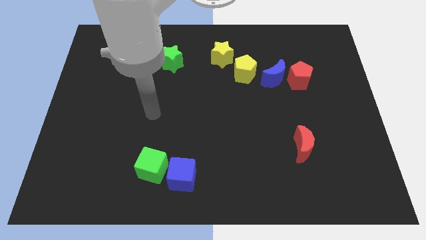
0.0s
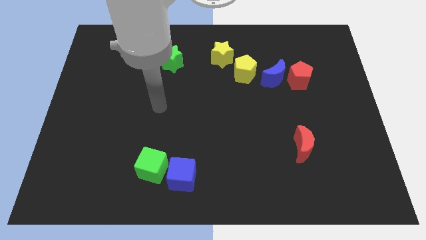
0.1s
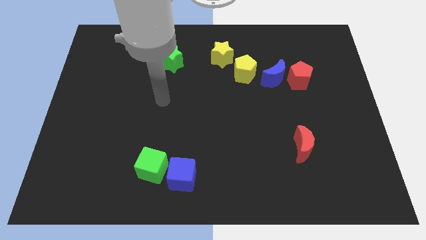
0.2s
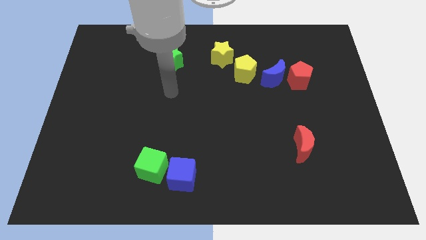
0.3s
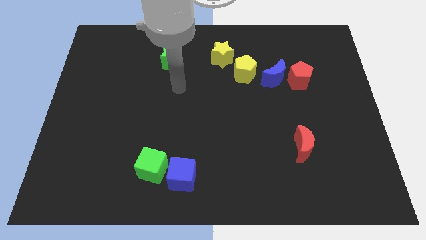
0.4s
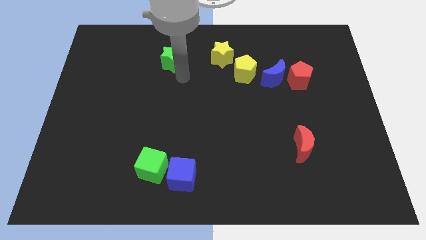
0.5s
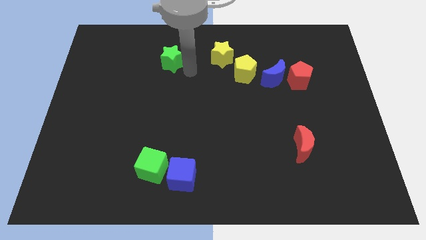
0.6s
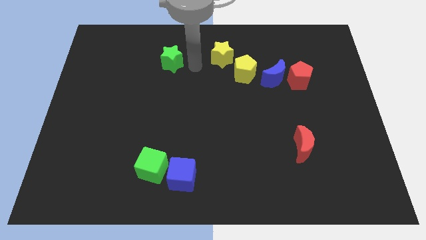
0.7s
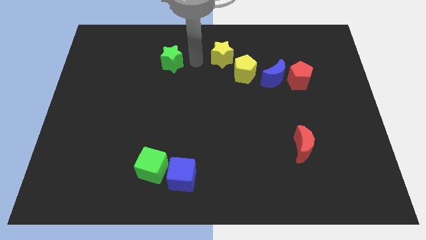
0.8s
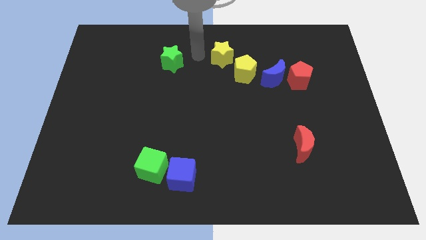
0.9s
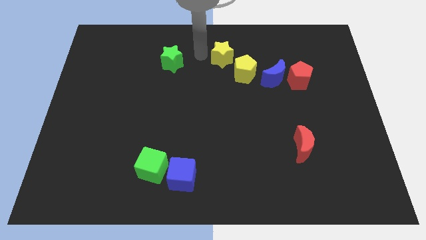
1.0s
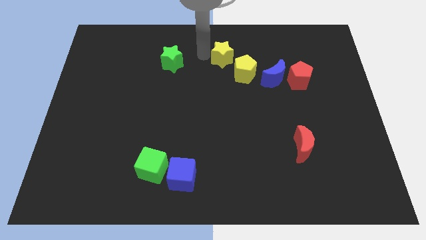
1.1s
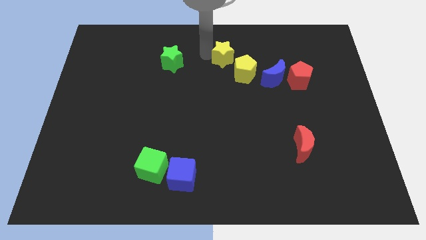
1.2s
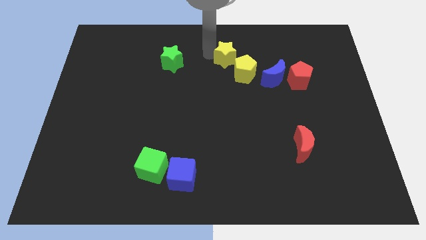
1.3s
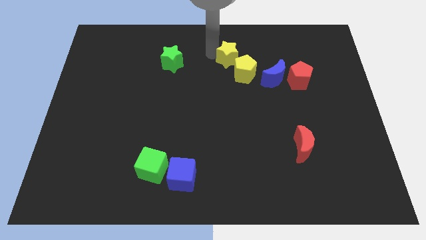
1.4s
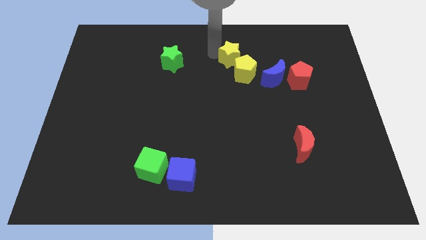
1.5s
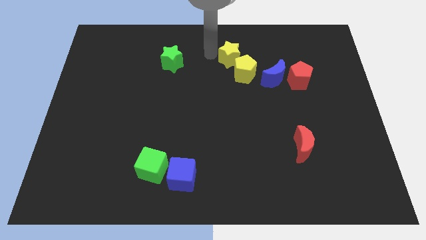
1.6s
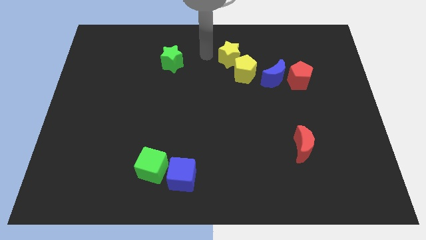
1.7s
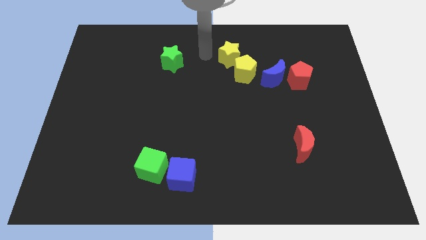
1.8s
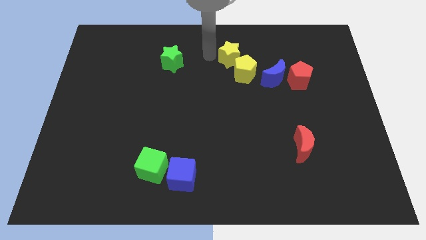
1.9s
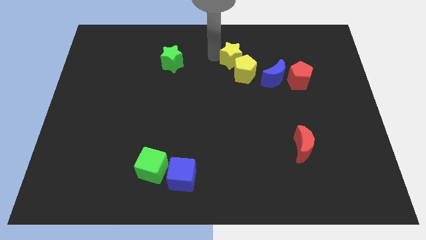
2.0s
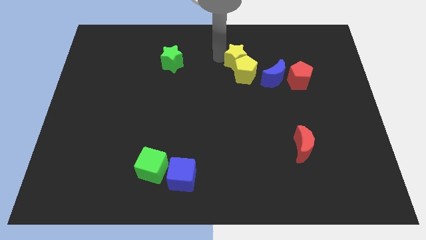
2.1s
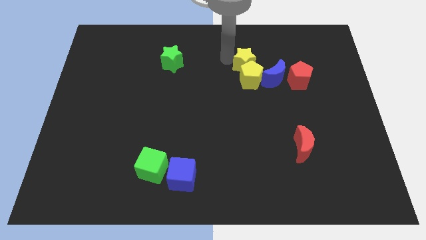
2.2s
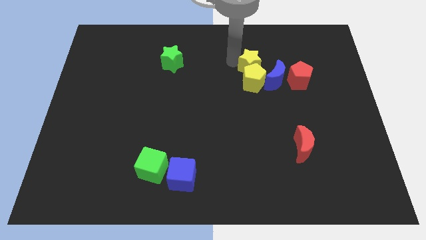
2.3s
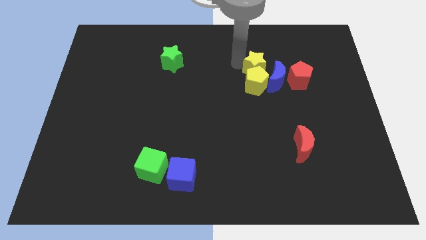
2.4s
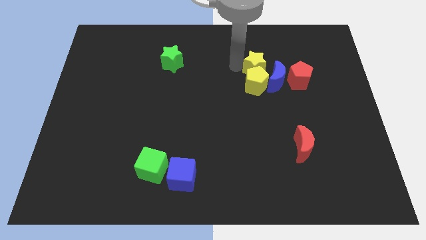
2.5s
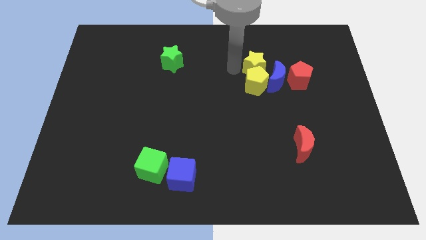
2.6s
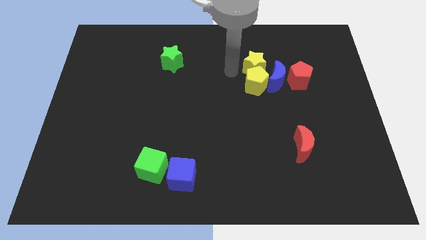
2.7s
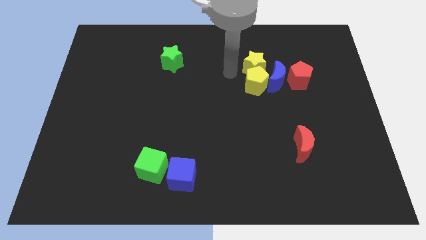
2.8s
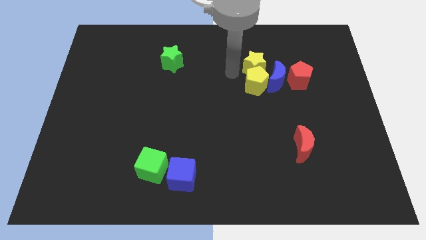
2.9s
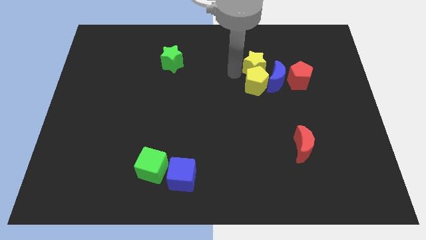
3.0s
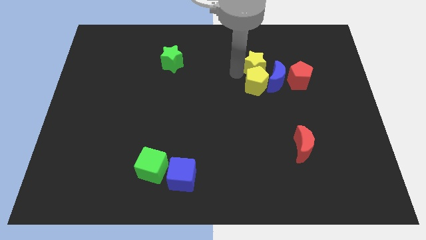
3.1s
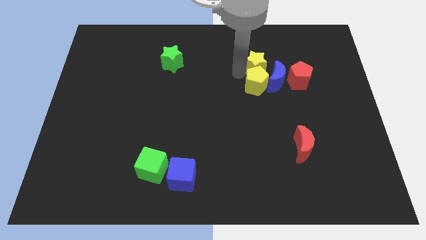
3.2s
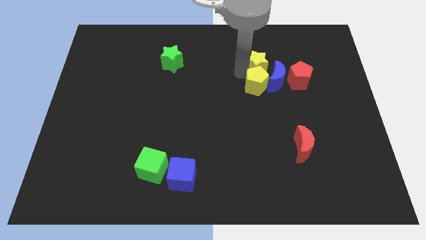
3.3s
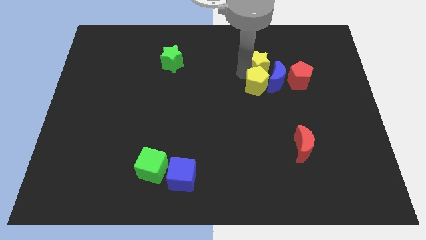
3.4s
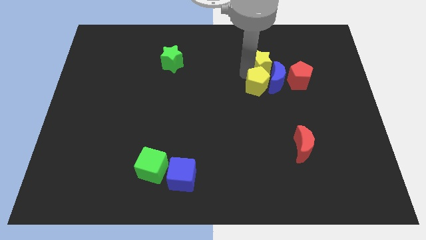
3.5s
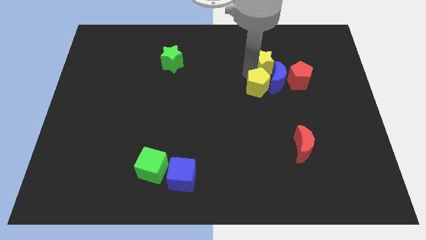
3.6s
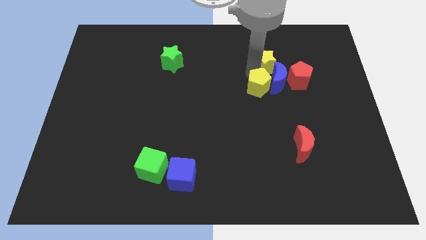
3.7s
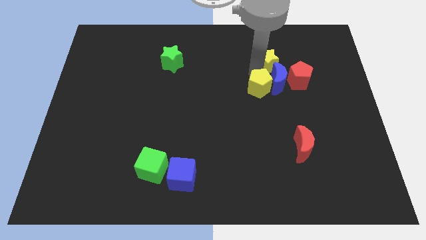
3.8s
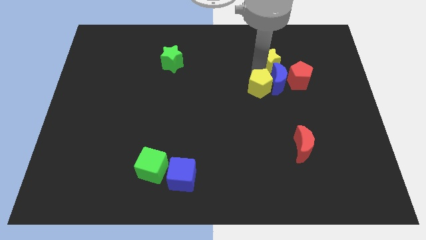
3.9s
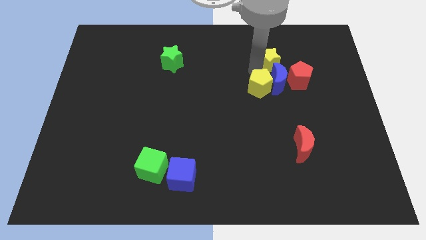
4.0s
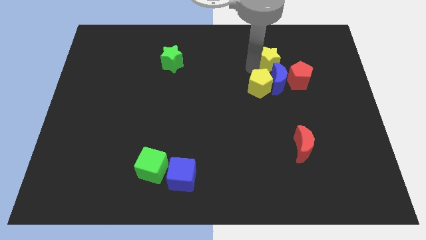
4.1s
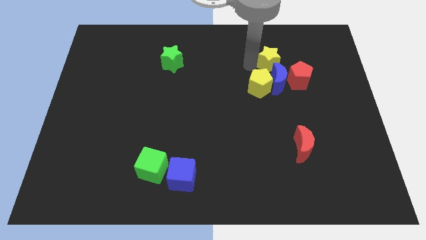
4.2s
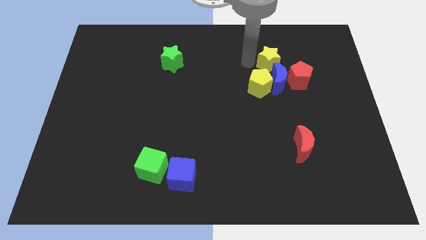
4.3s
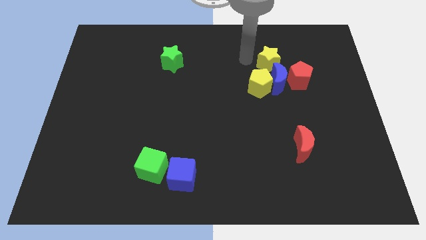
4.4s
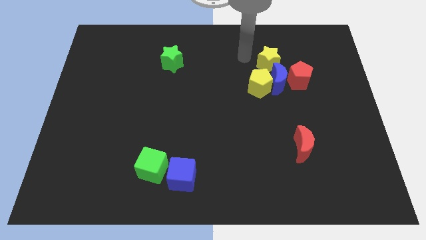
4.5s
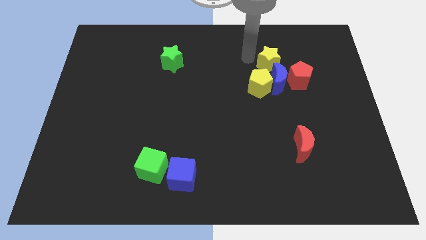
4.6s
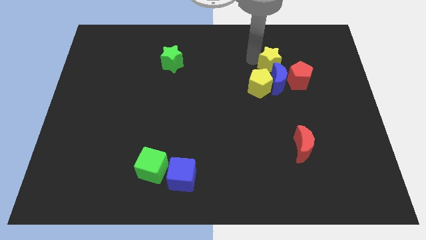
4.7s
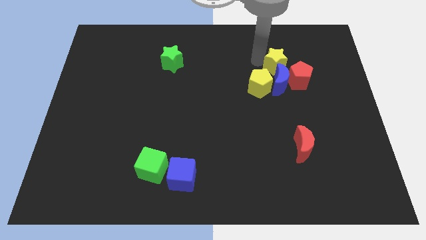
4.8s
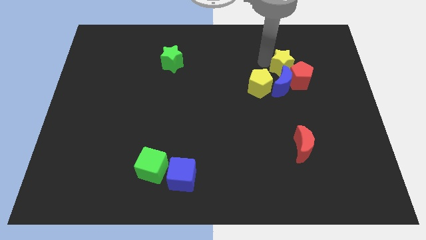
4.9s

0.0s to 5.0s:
put the yellow star to the red pentagon

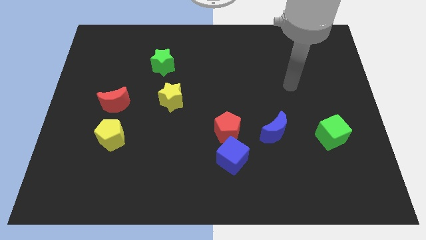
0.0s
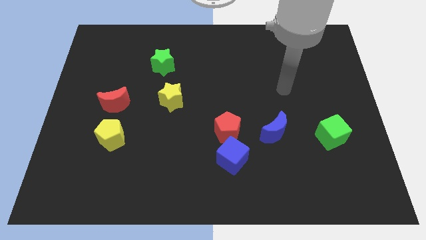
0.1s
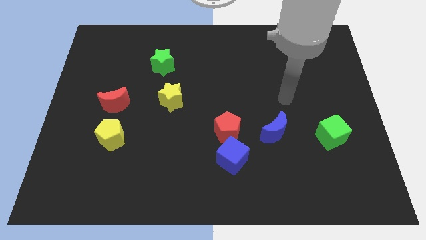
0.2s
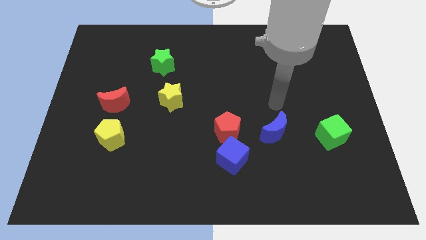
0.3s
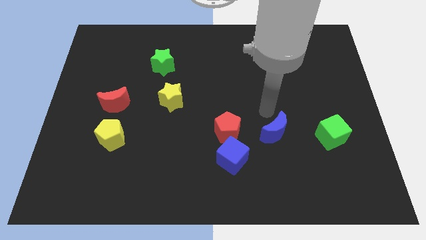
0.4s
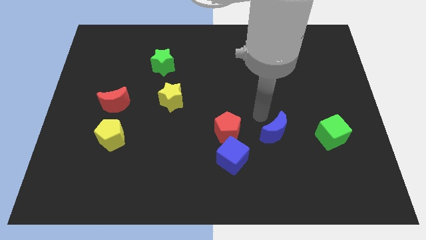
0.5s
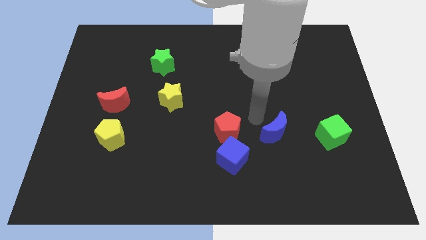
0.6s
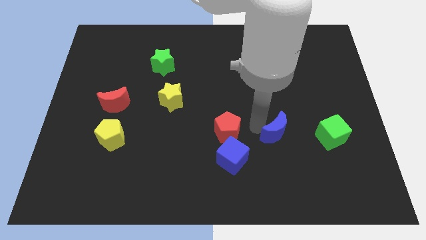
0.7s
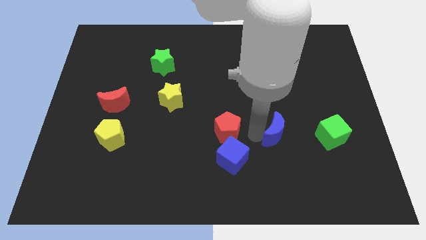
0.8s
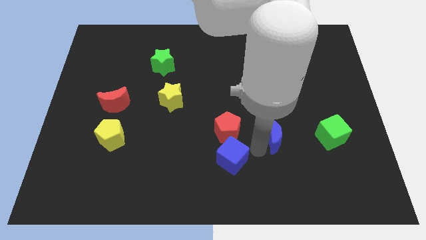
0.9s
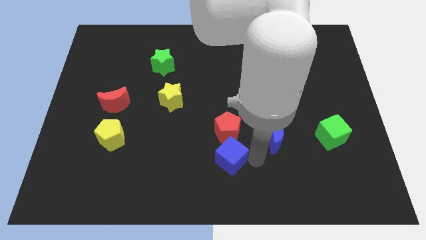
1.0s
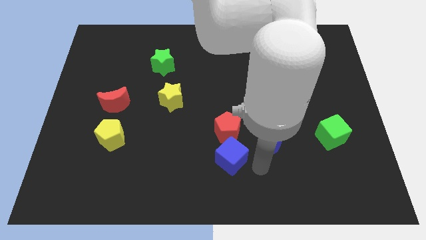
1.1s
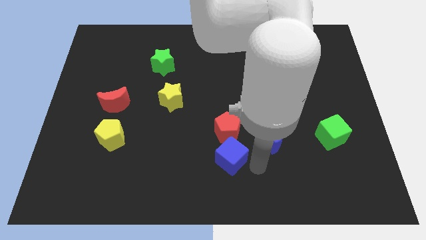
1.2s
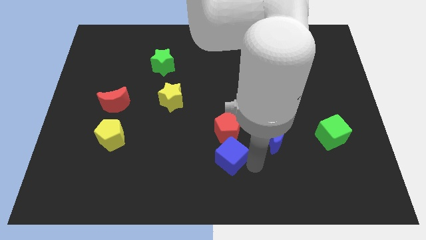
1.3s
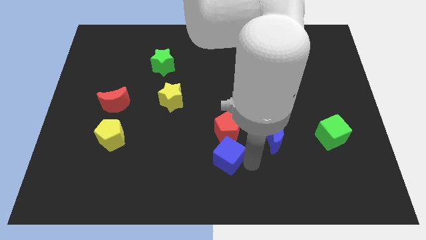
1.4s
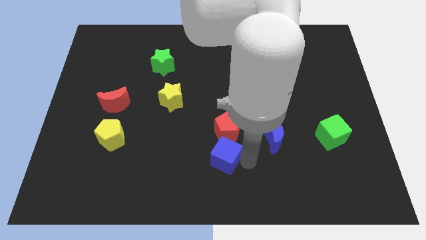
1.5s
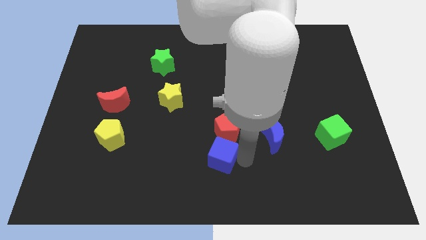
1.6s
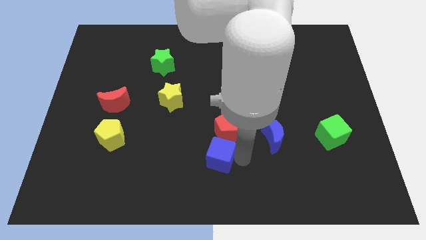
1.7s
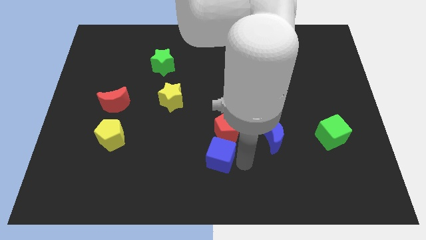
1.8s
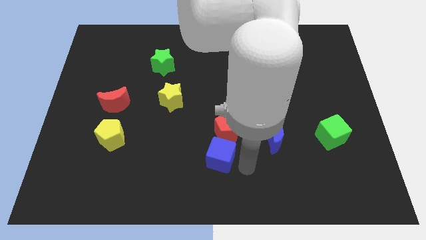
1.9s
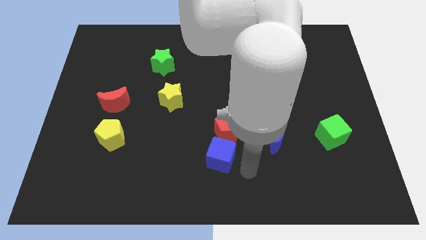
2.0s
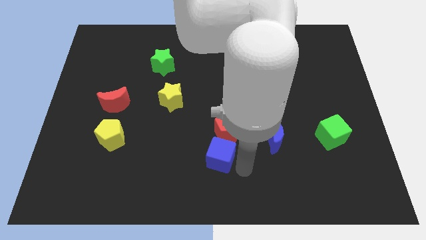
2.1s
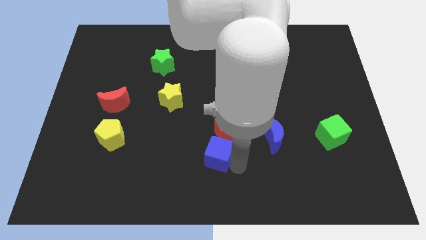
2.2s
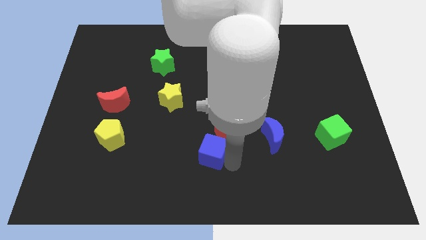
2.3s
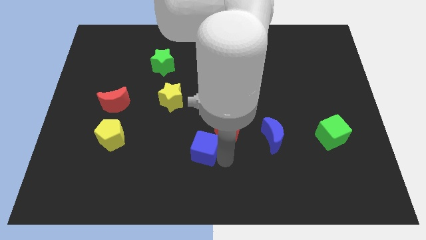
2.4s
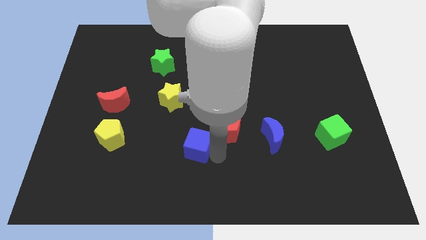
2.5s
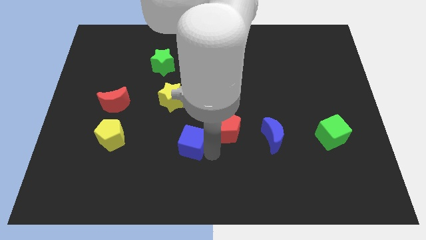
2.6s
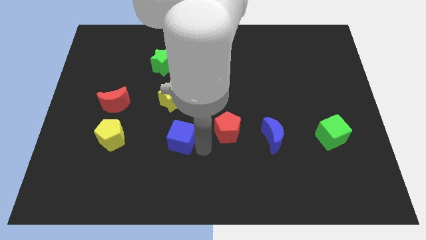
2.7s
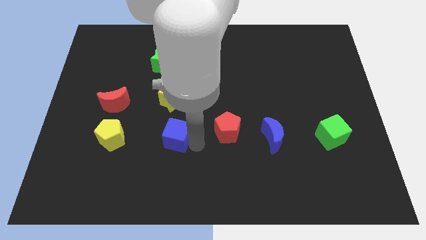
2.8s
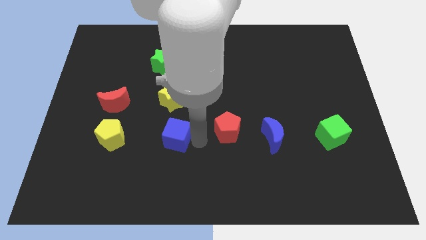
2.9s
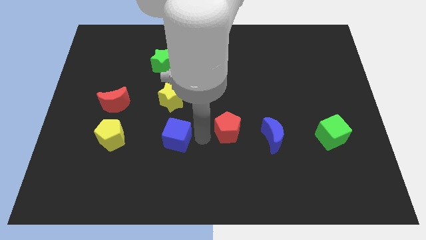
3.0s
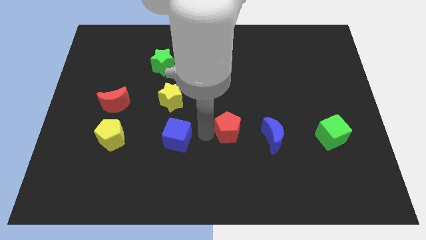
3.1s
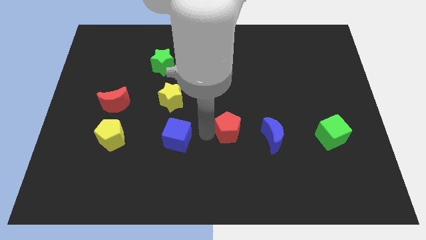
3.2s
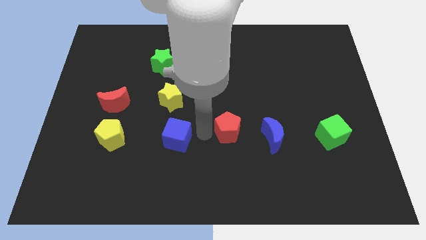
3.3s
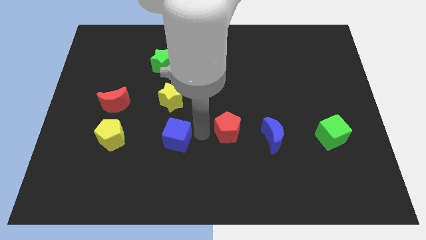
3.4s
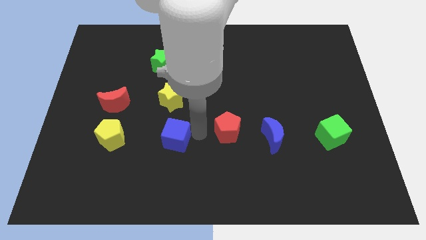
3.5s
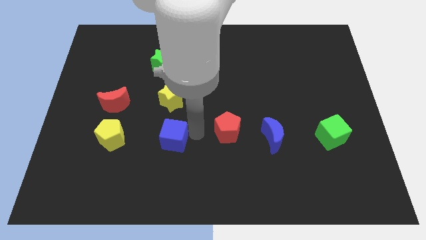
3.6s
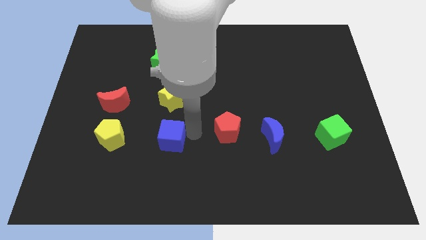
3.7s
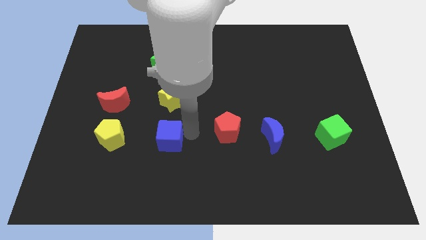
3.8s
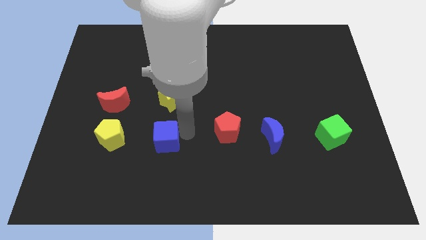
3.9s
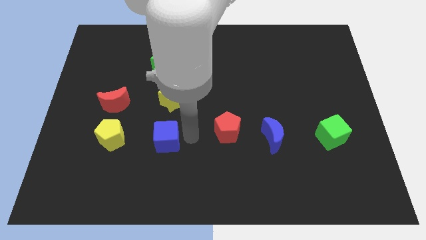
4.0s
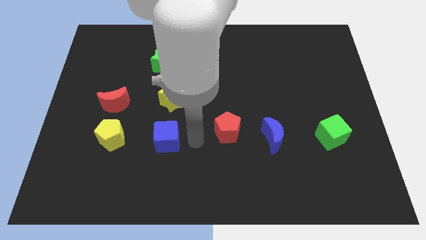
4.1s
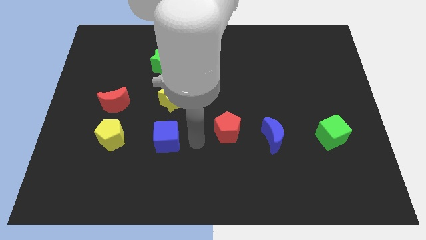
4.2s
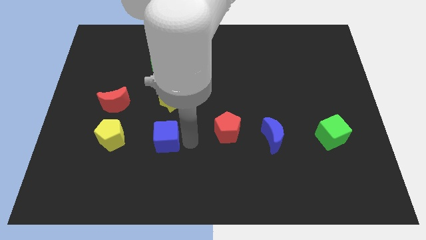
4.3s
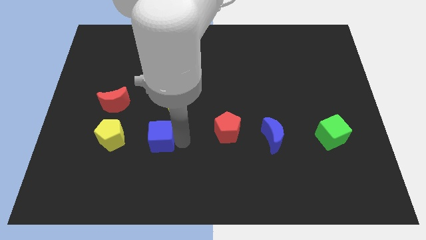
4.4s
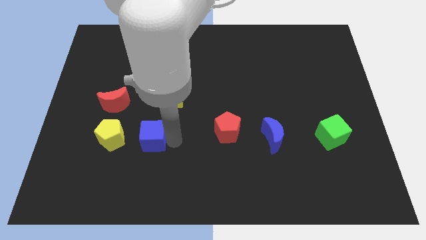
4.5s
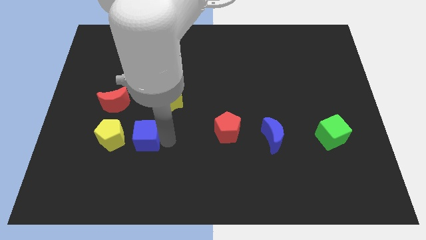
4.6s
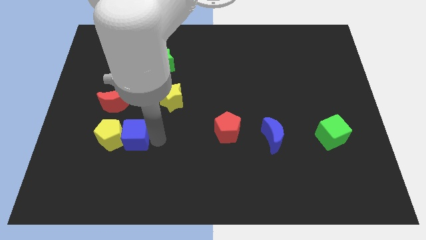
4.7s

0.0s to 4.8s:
slide the blue cube towards the yellow pentagon
